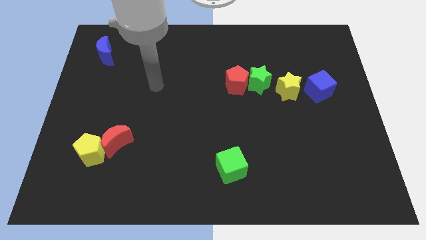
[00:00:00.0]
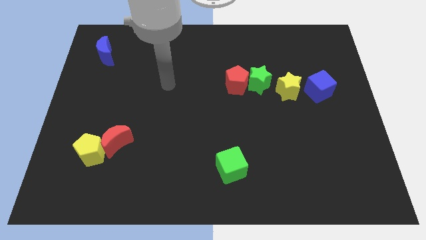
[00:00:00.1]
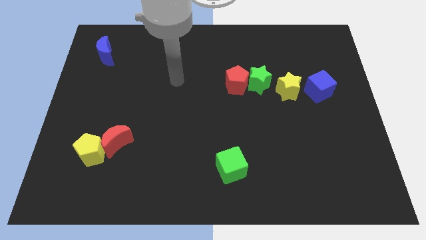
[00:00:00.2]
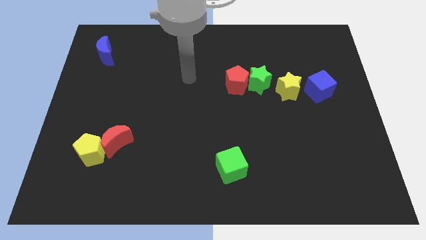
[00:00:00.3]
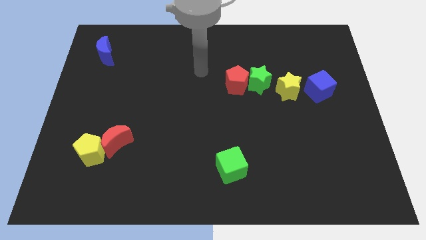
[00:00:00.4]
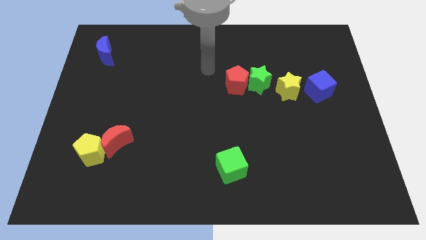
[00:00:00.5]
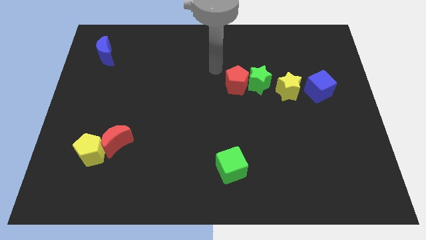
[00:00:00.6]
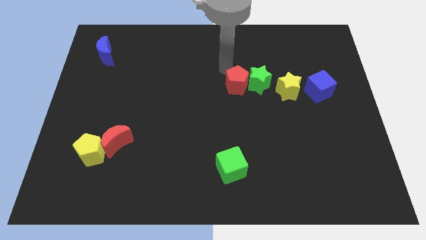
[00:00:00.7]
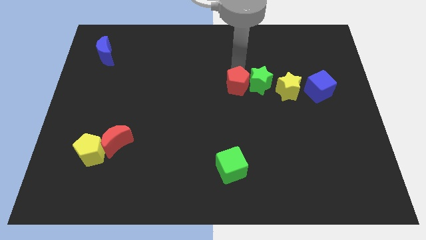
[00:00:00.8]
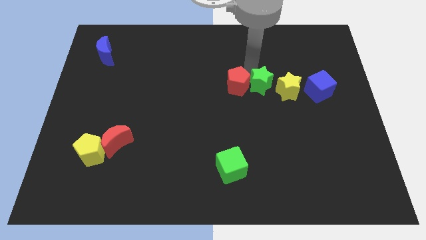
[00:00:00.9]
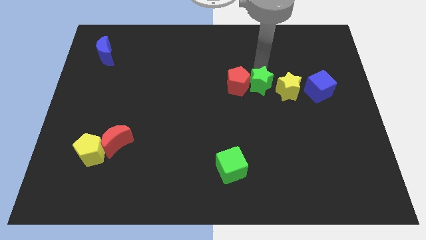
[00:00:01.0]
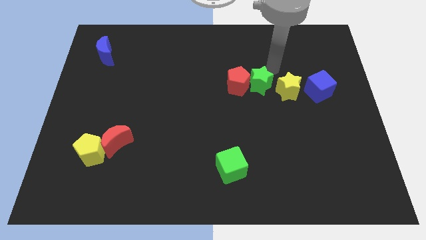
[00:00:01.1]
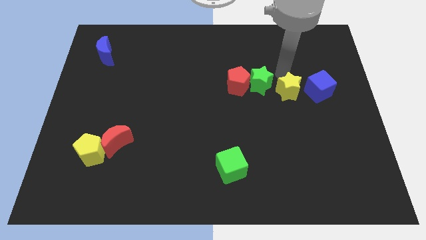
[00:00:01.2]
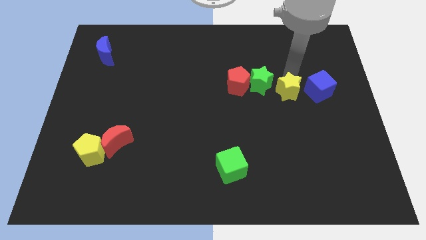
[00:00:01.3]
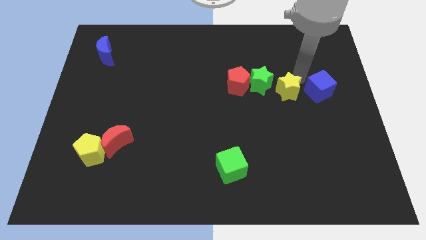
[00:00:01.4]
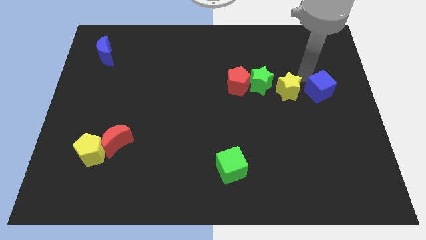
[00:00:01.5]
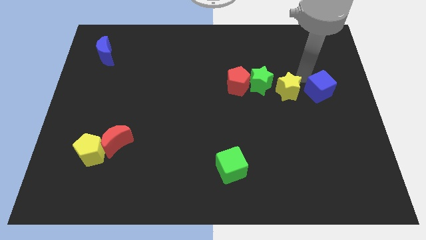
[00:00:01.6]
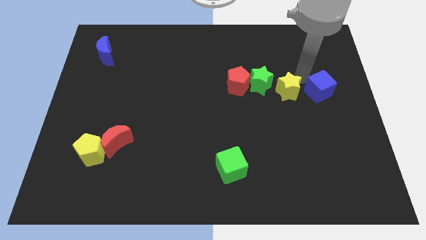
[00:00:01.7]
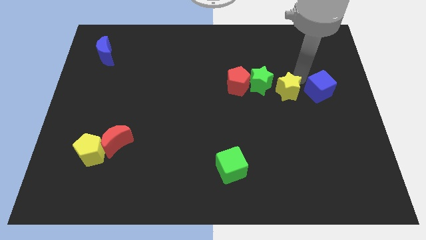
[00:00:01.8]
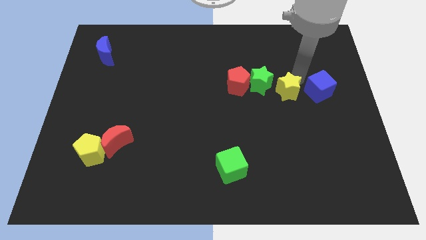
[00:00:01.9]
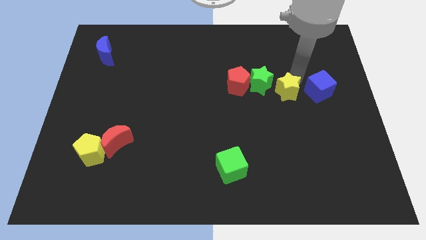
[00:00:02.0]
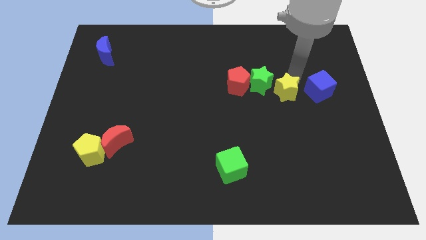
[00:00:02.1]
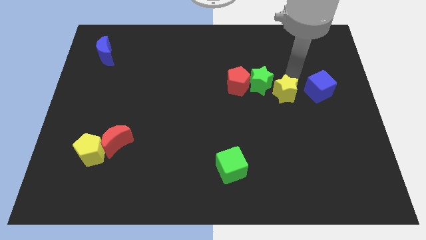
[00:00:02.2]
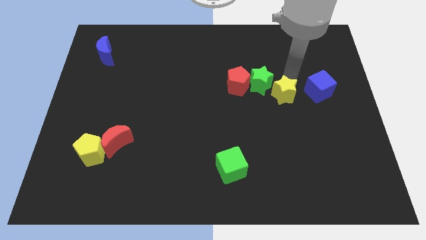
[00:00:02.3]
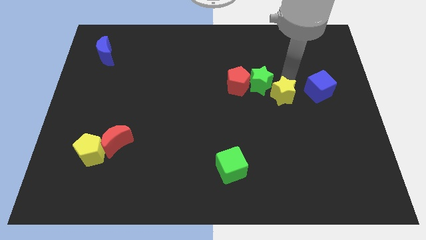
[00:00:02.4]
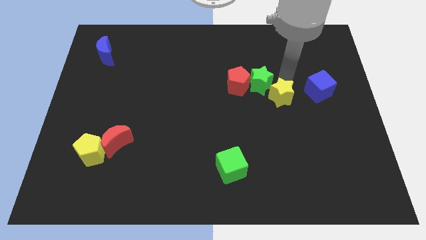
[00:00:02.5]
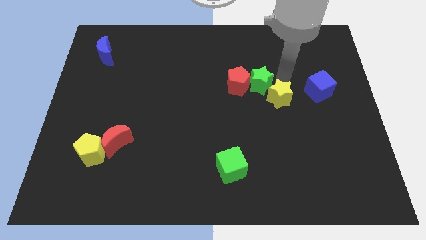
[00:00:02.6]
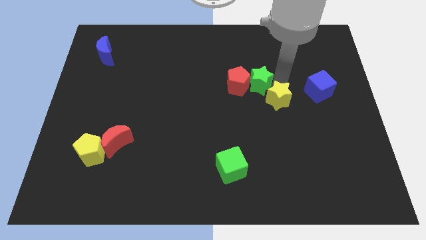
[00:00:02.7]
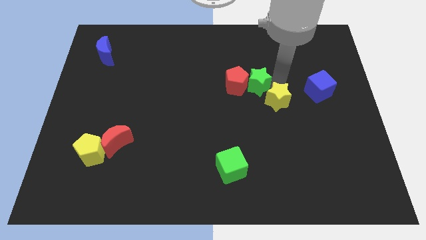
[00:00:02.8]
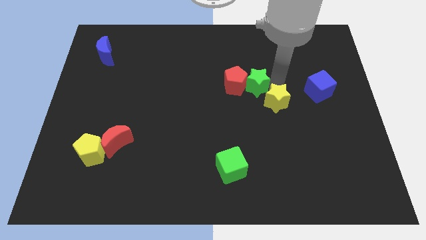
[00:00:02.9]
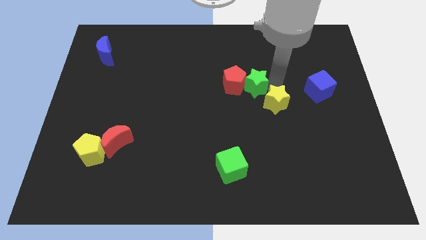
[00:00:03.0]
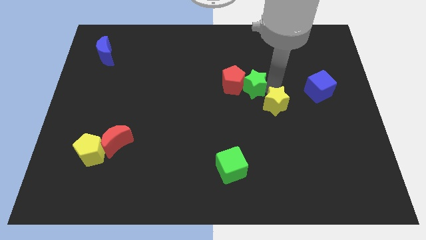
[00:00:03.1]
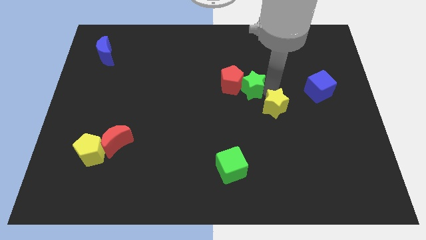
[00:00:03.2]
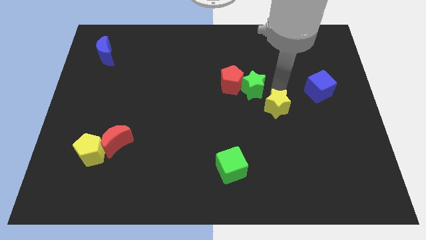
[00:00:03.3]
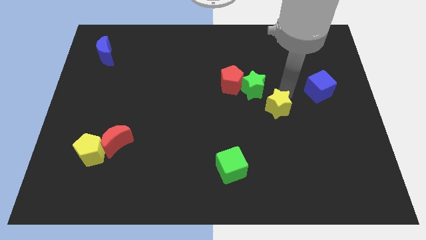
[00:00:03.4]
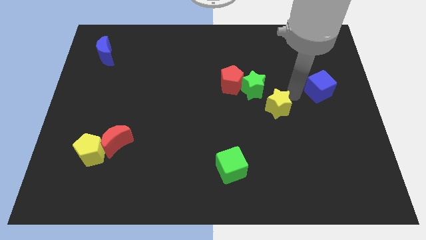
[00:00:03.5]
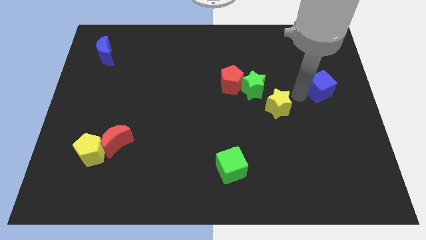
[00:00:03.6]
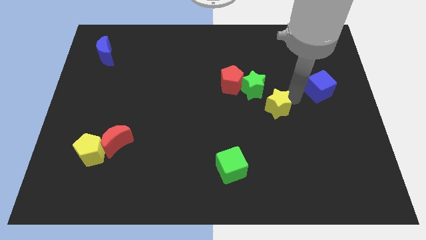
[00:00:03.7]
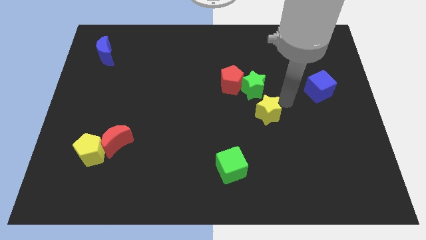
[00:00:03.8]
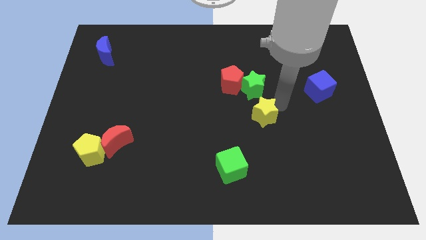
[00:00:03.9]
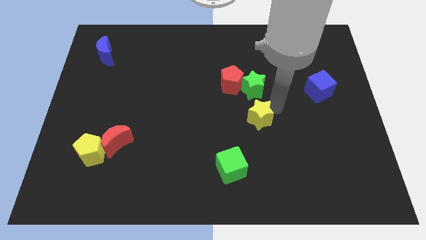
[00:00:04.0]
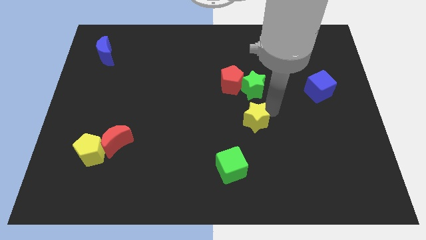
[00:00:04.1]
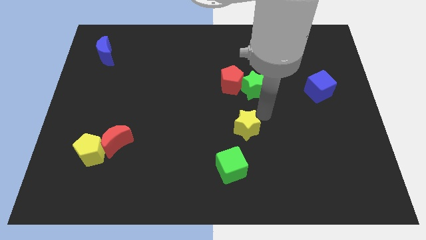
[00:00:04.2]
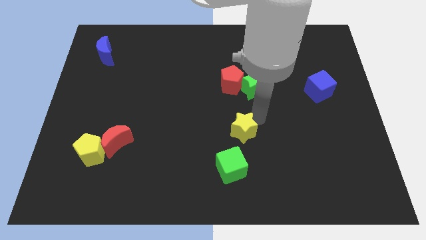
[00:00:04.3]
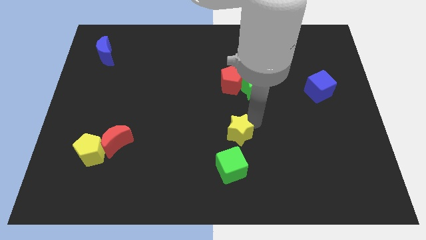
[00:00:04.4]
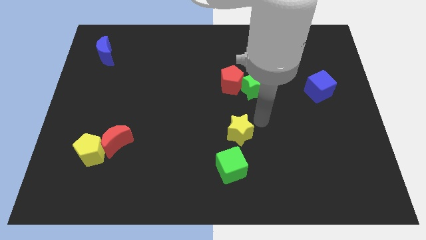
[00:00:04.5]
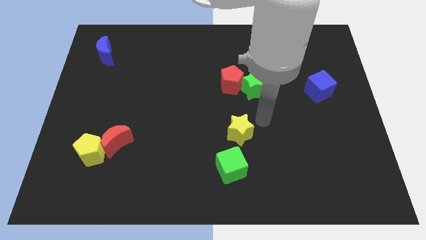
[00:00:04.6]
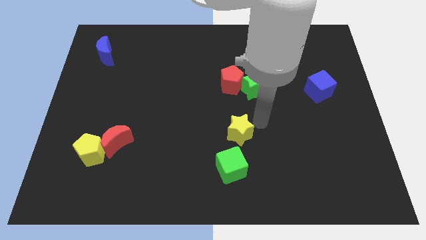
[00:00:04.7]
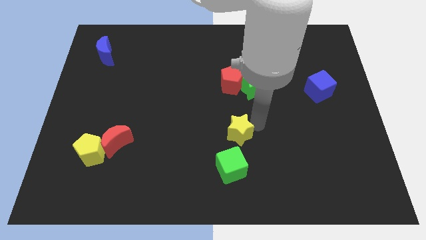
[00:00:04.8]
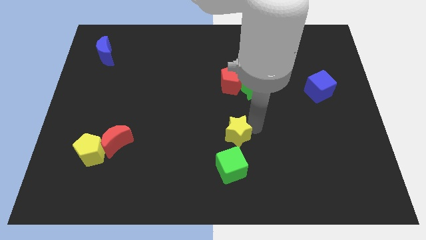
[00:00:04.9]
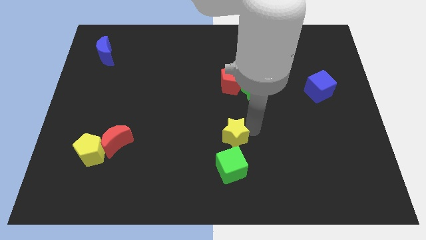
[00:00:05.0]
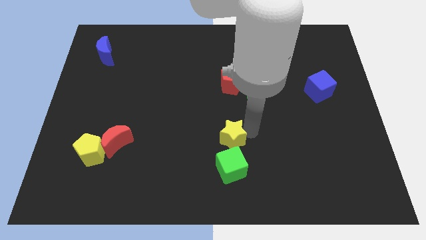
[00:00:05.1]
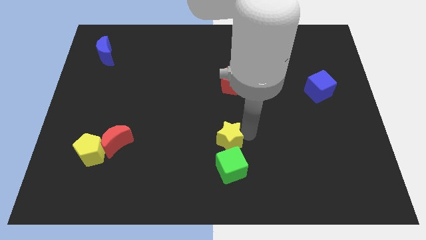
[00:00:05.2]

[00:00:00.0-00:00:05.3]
push the yellow star to the top left of the green cube

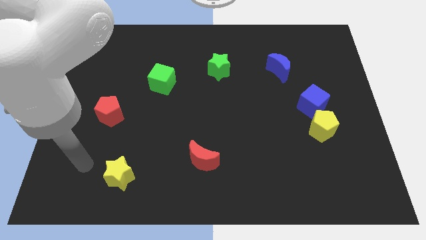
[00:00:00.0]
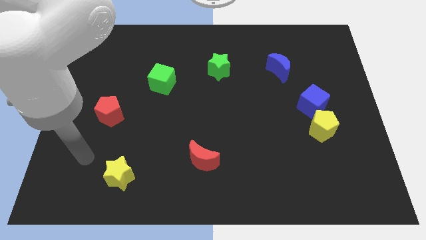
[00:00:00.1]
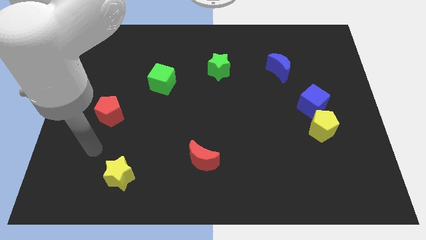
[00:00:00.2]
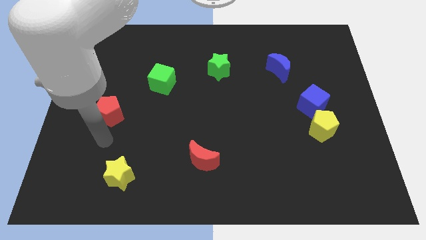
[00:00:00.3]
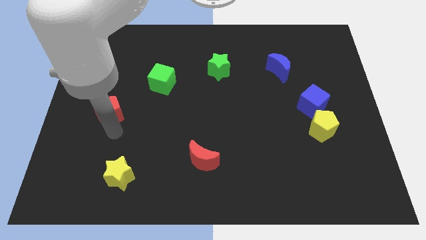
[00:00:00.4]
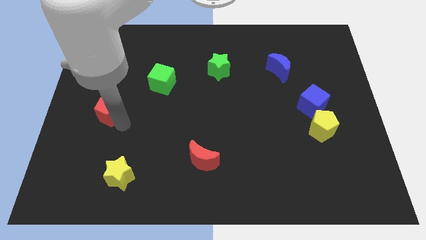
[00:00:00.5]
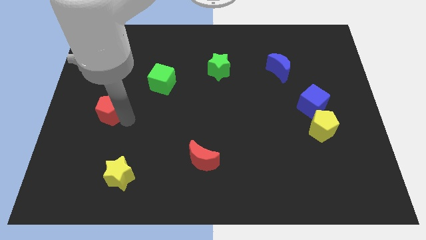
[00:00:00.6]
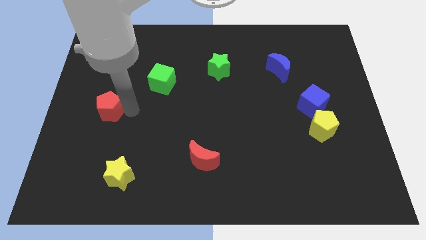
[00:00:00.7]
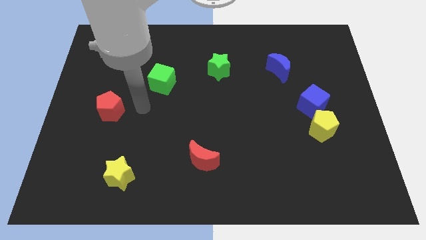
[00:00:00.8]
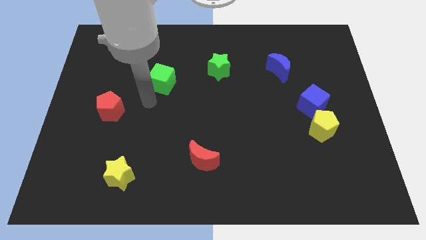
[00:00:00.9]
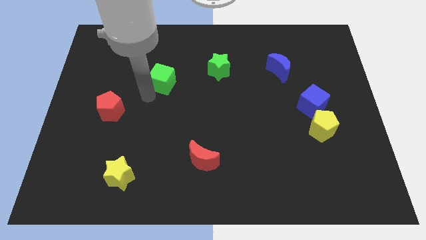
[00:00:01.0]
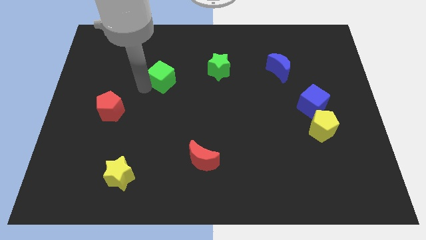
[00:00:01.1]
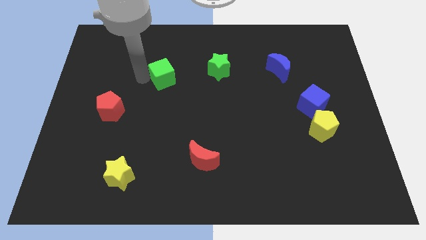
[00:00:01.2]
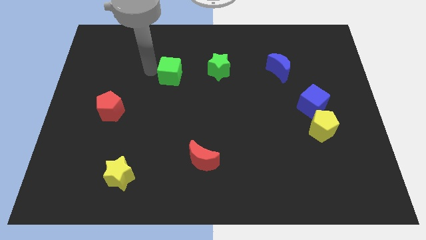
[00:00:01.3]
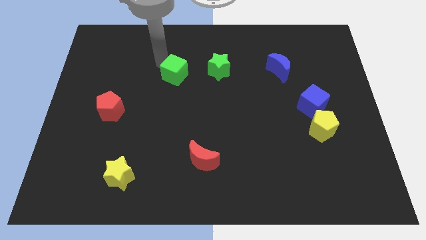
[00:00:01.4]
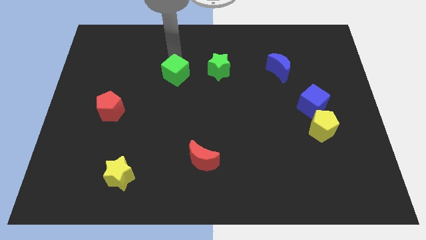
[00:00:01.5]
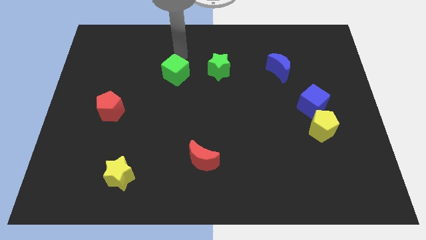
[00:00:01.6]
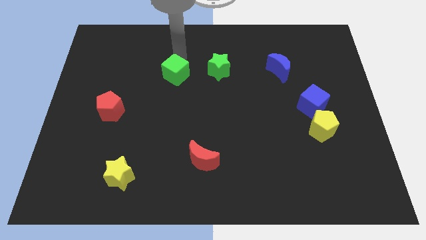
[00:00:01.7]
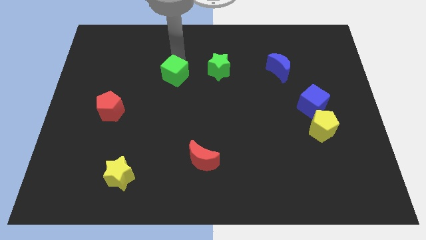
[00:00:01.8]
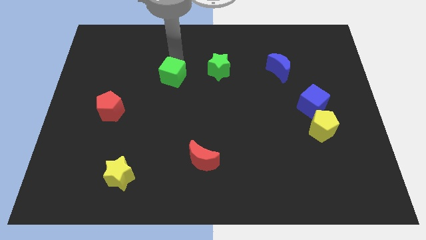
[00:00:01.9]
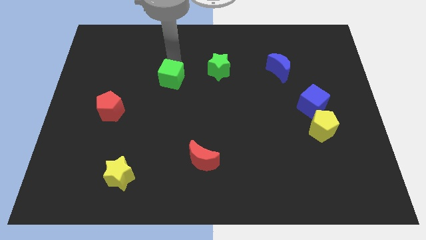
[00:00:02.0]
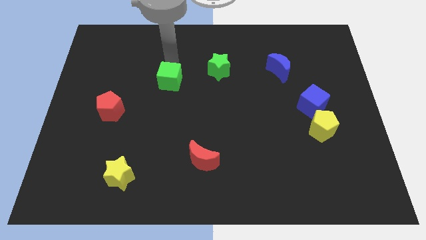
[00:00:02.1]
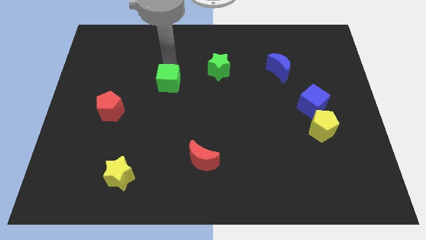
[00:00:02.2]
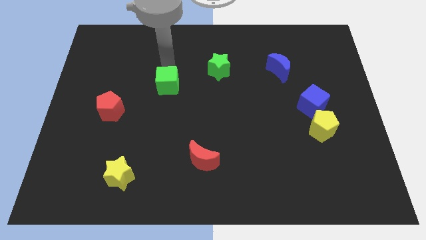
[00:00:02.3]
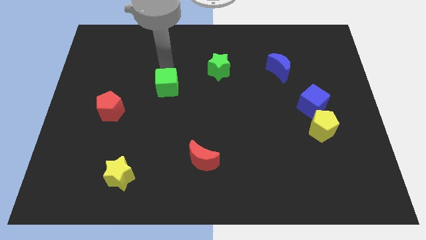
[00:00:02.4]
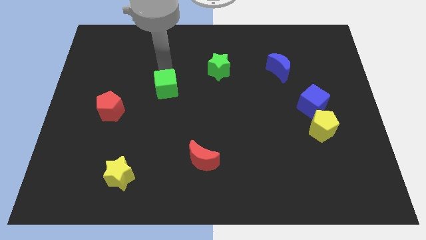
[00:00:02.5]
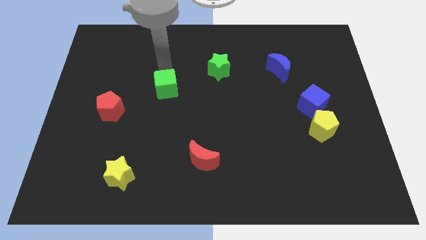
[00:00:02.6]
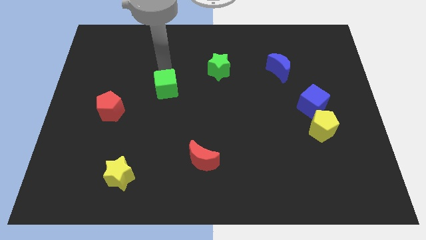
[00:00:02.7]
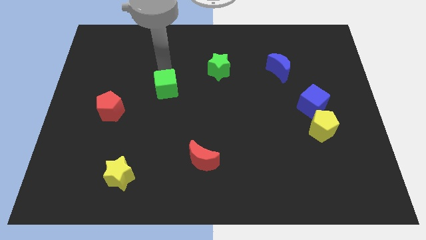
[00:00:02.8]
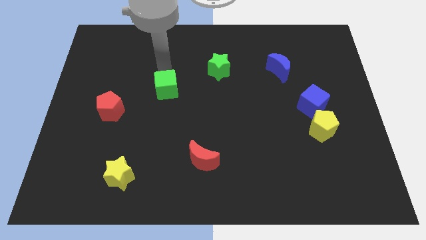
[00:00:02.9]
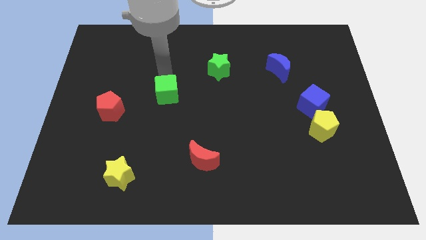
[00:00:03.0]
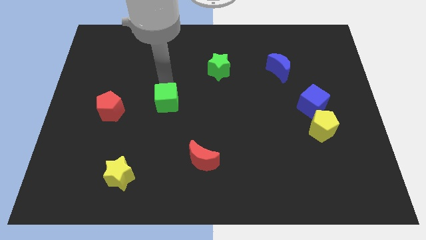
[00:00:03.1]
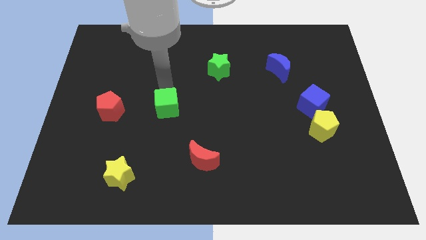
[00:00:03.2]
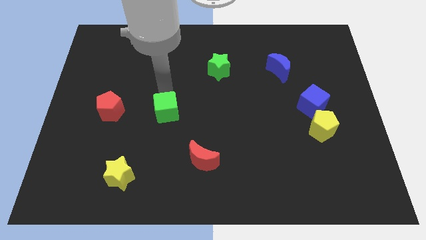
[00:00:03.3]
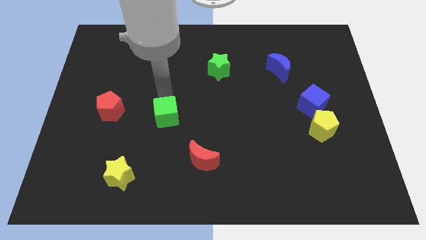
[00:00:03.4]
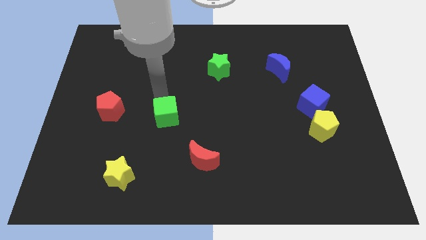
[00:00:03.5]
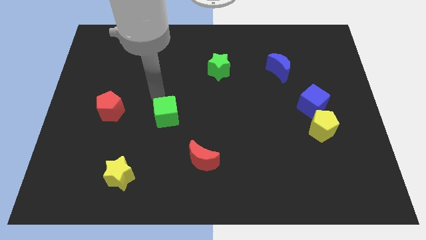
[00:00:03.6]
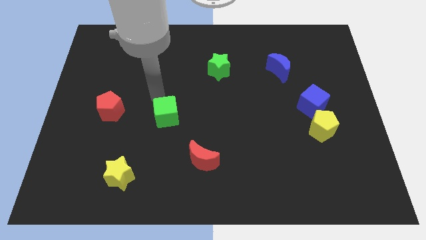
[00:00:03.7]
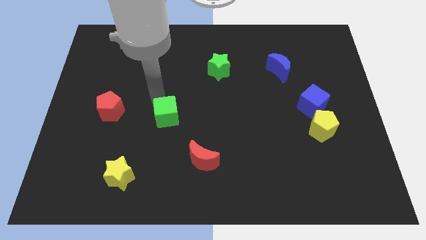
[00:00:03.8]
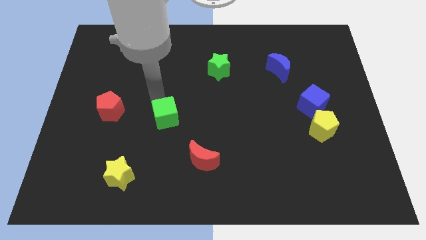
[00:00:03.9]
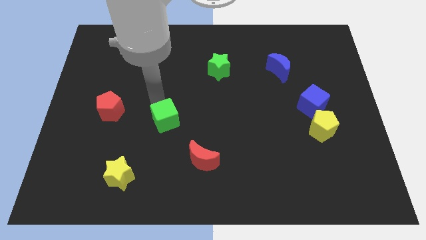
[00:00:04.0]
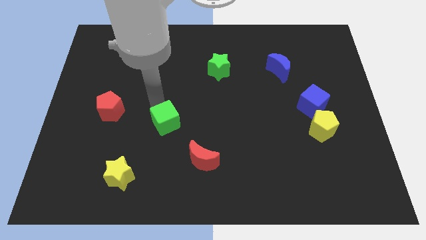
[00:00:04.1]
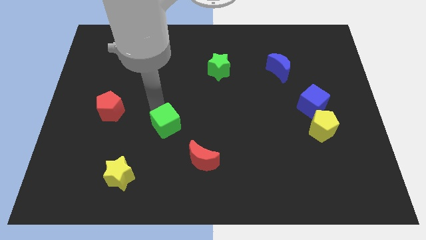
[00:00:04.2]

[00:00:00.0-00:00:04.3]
push the green cube to the top left side of the red moon
